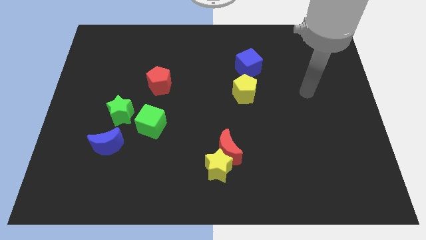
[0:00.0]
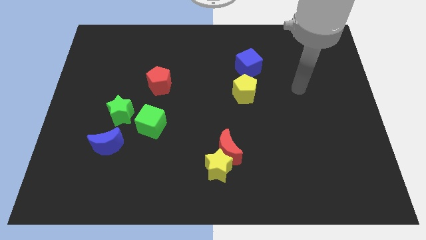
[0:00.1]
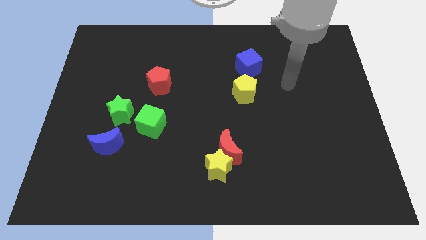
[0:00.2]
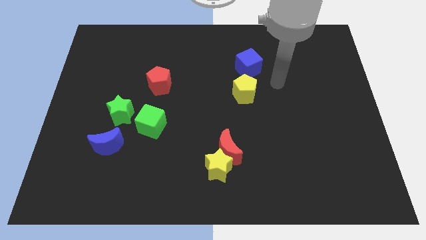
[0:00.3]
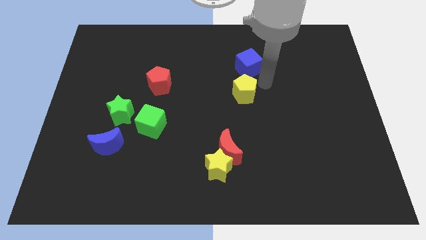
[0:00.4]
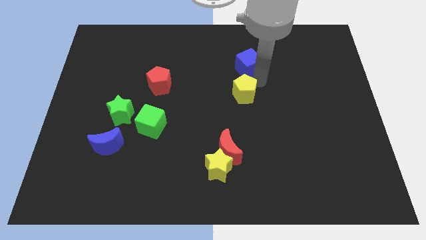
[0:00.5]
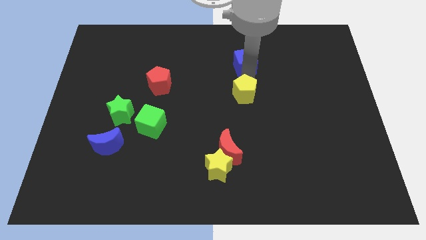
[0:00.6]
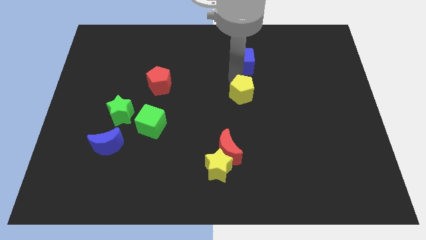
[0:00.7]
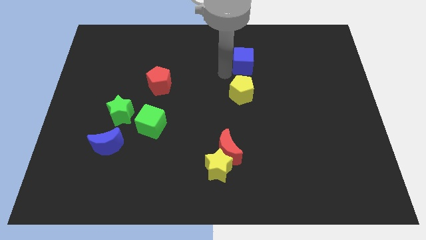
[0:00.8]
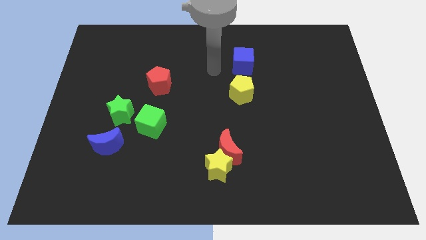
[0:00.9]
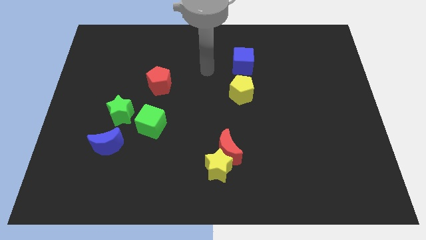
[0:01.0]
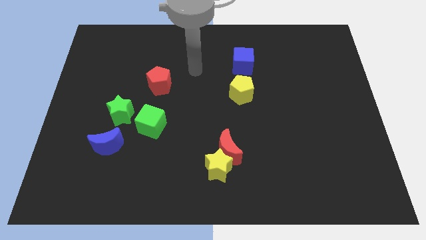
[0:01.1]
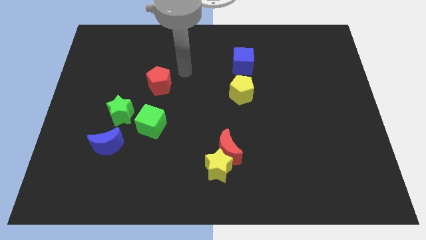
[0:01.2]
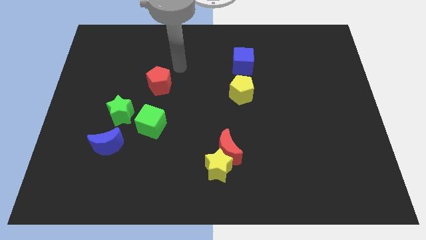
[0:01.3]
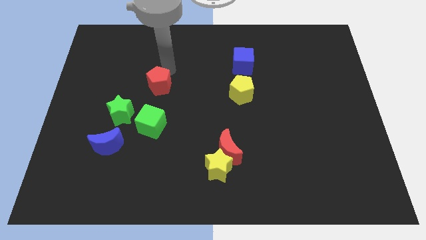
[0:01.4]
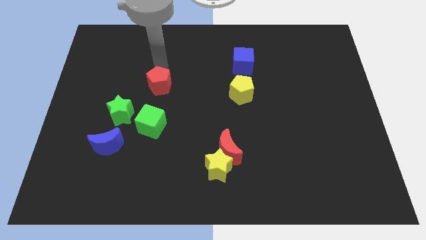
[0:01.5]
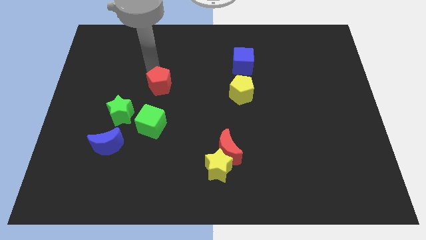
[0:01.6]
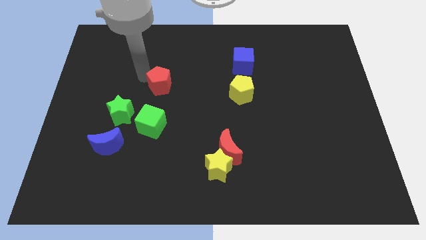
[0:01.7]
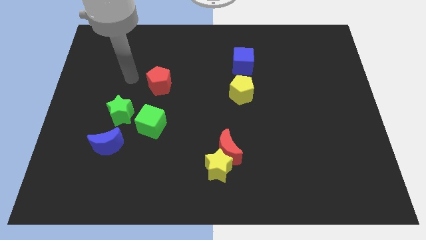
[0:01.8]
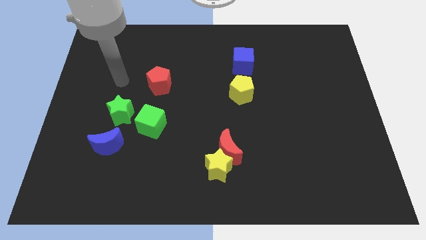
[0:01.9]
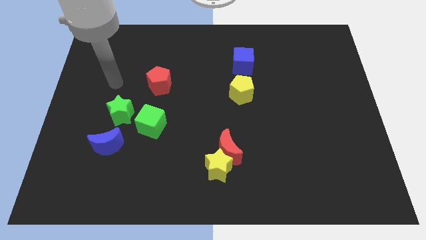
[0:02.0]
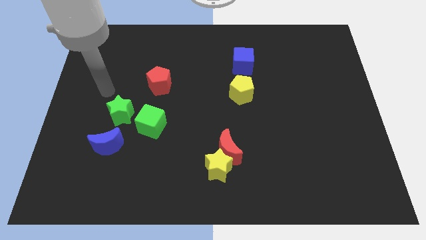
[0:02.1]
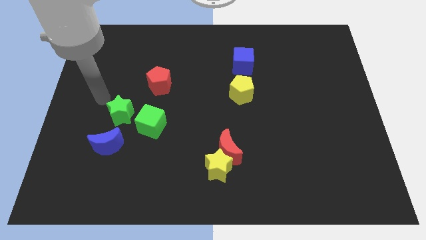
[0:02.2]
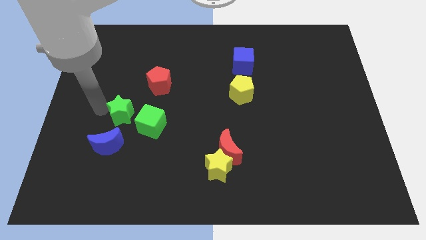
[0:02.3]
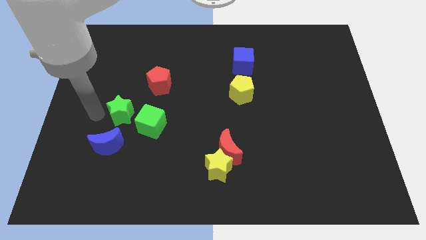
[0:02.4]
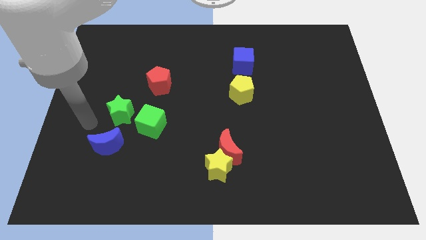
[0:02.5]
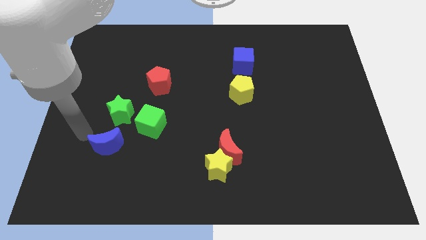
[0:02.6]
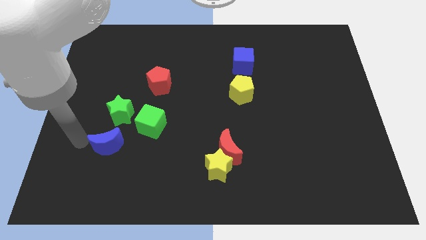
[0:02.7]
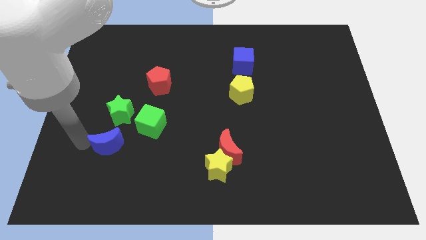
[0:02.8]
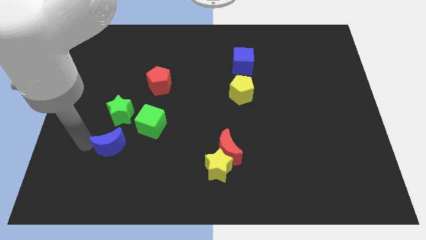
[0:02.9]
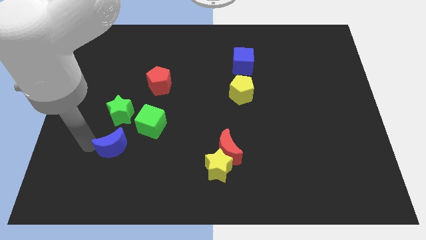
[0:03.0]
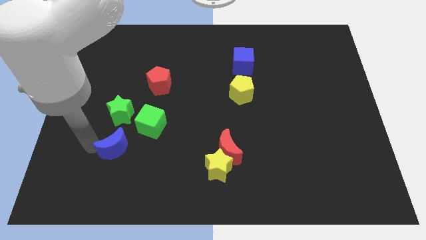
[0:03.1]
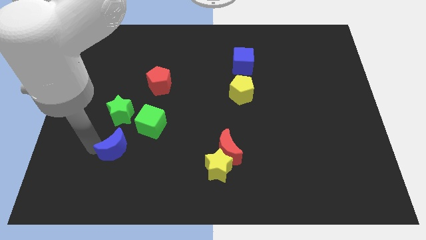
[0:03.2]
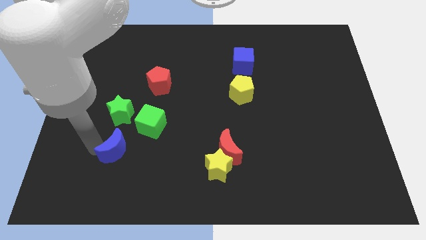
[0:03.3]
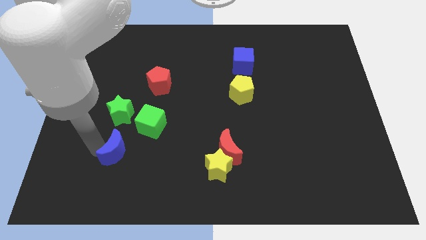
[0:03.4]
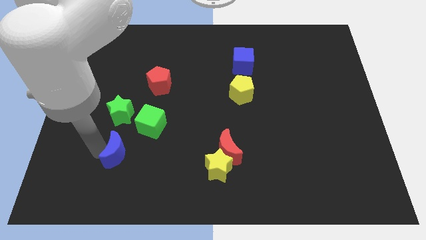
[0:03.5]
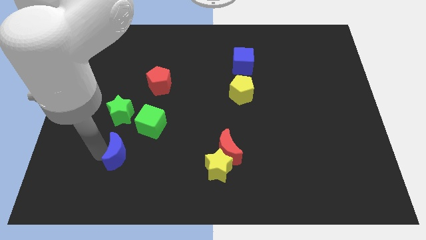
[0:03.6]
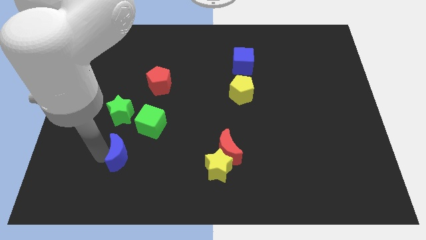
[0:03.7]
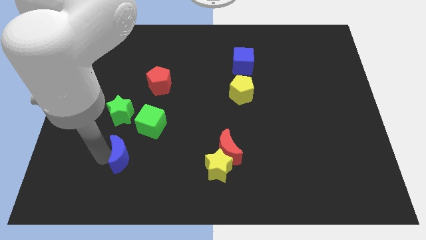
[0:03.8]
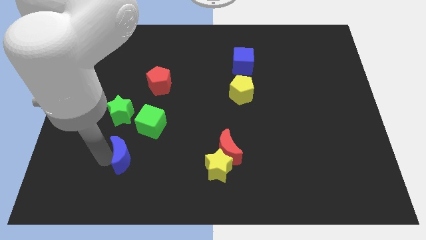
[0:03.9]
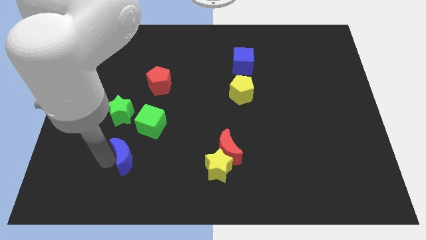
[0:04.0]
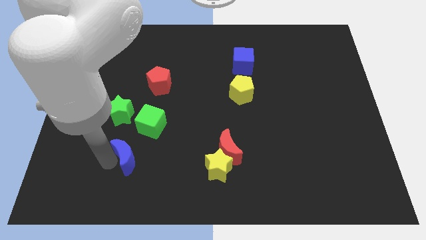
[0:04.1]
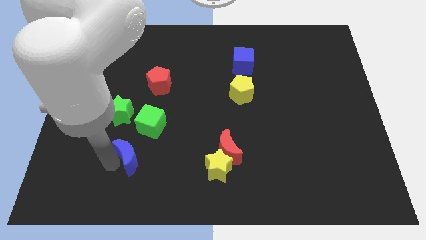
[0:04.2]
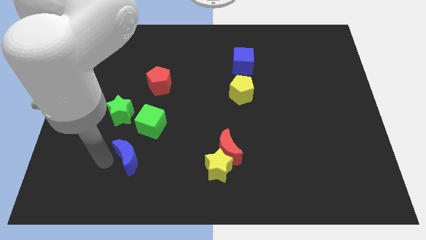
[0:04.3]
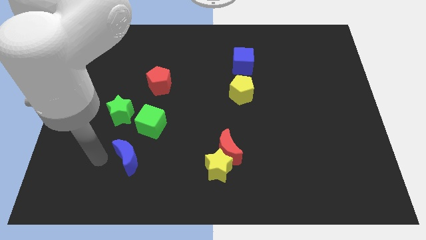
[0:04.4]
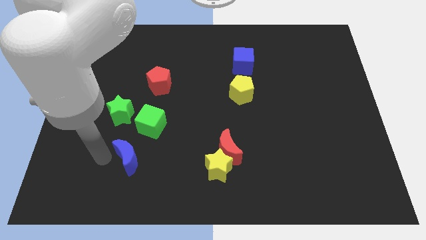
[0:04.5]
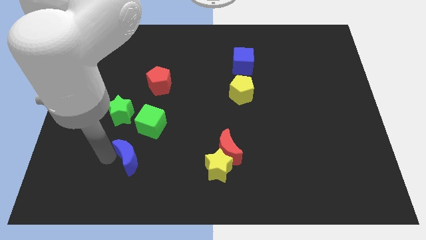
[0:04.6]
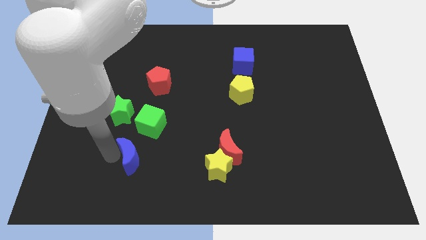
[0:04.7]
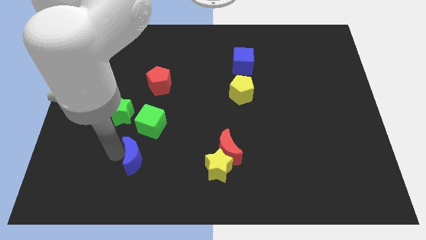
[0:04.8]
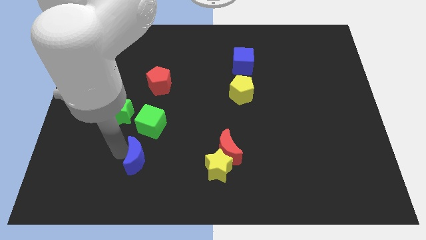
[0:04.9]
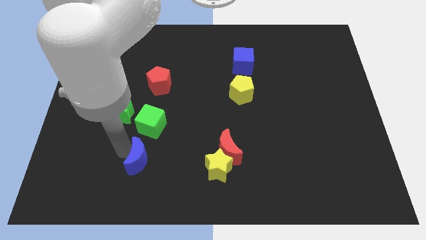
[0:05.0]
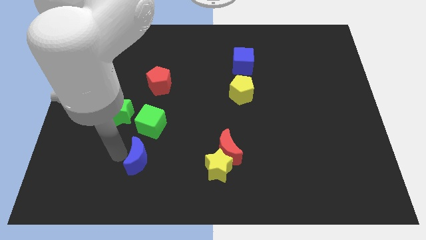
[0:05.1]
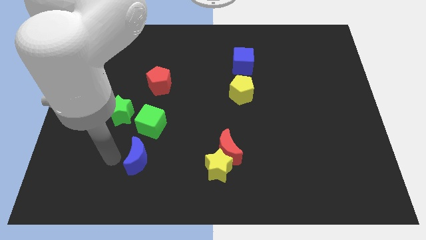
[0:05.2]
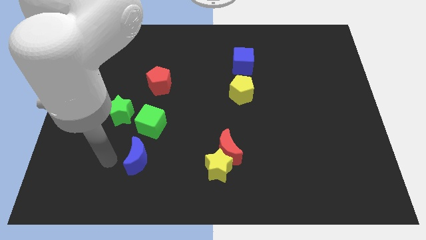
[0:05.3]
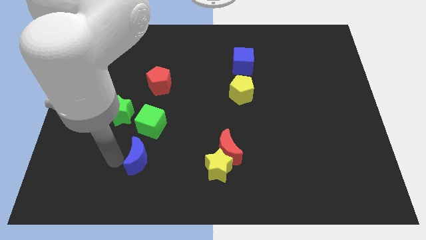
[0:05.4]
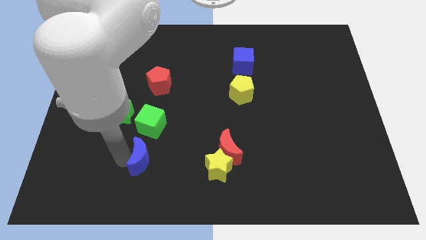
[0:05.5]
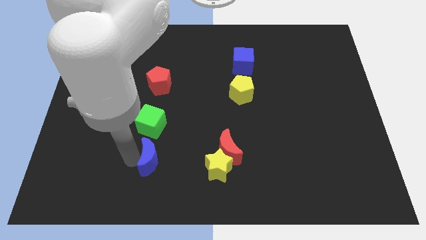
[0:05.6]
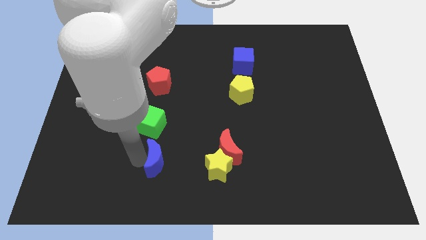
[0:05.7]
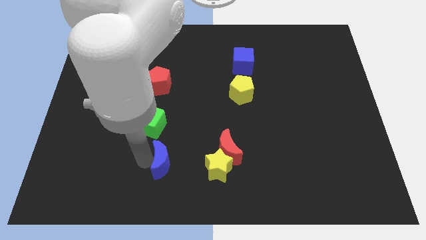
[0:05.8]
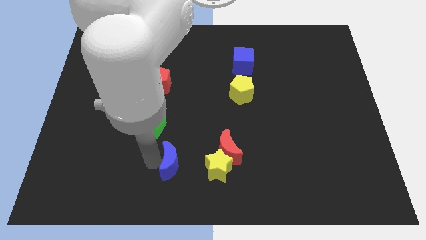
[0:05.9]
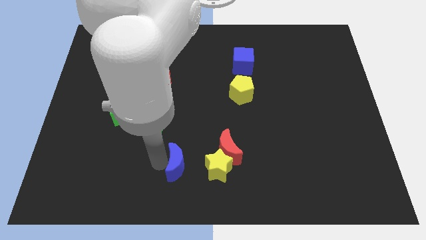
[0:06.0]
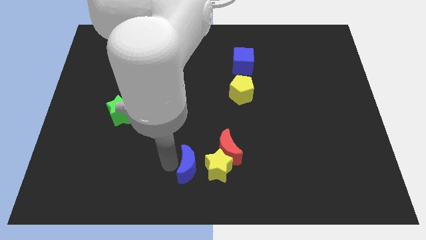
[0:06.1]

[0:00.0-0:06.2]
push the blue moon towards the yellow star
